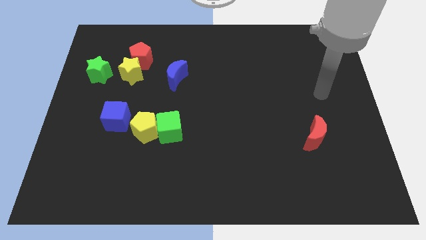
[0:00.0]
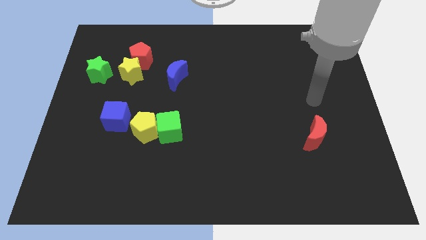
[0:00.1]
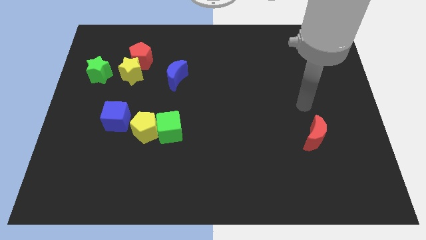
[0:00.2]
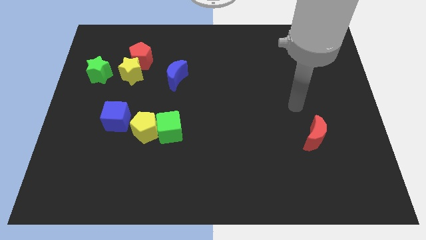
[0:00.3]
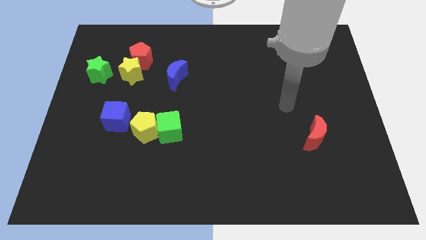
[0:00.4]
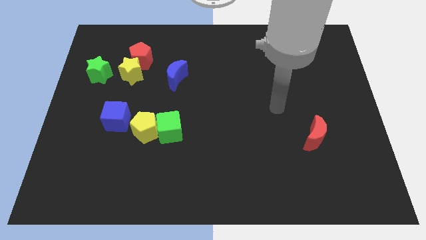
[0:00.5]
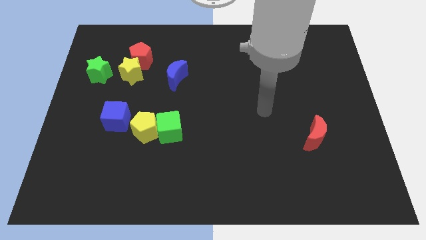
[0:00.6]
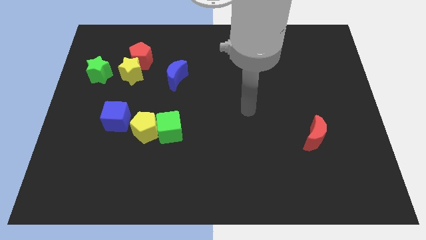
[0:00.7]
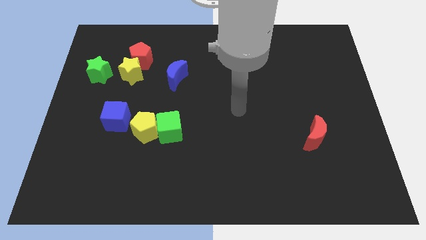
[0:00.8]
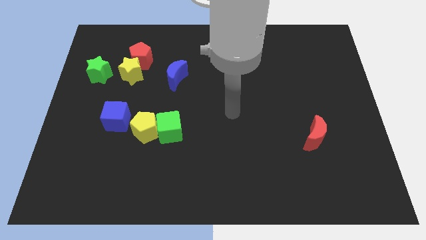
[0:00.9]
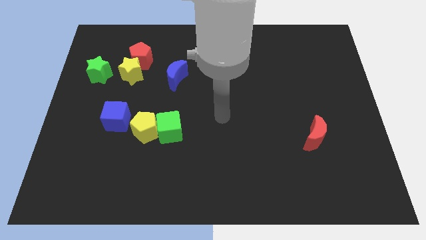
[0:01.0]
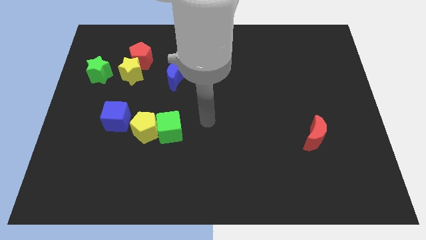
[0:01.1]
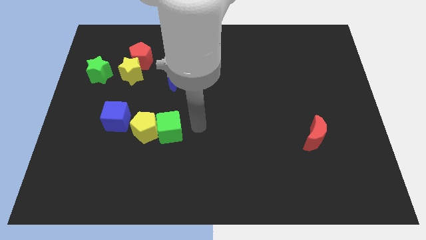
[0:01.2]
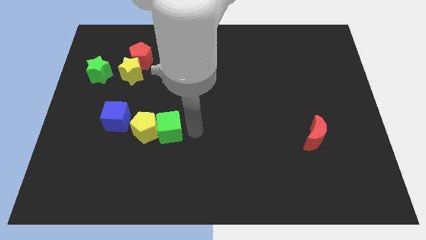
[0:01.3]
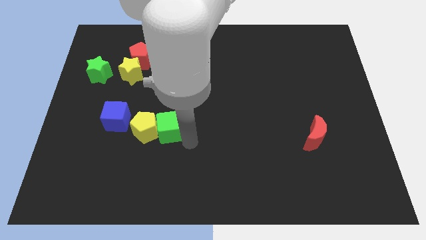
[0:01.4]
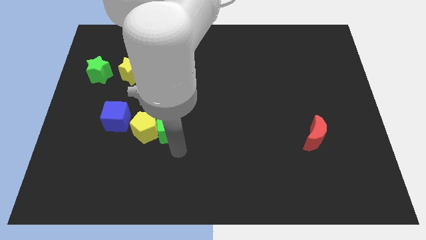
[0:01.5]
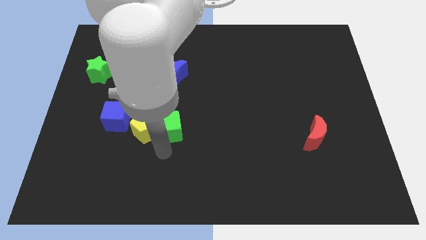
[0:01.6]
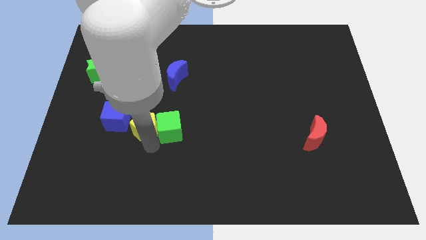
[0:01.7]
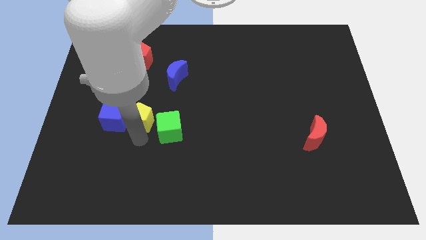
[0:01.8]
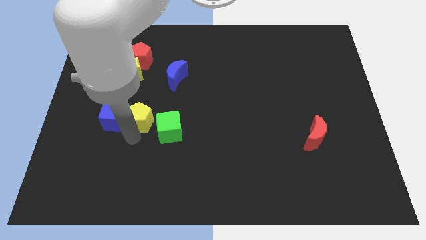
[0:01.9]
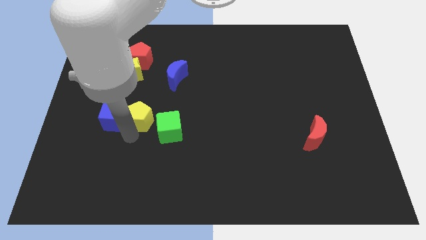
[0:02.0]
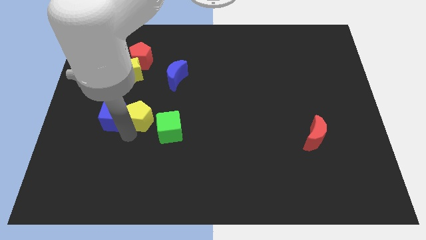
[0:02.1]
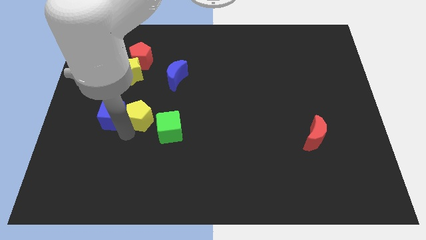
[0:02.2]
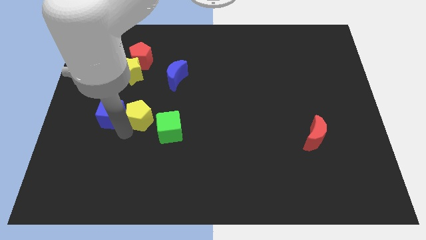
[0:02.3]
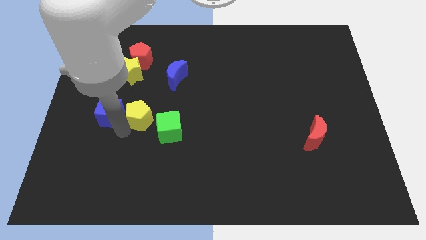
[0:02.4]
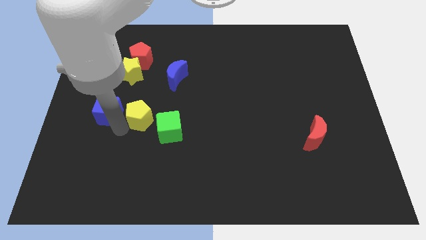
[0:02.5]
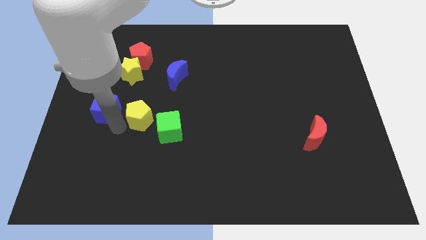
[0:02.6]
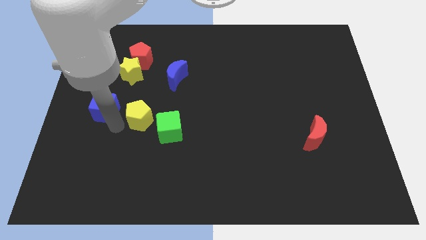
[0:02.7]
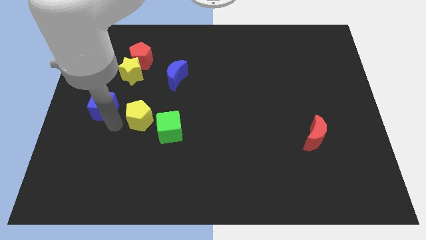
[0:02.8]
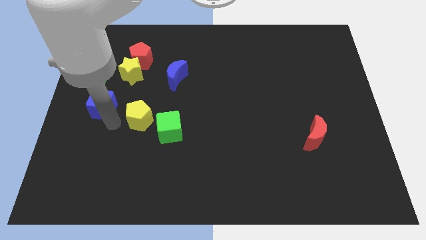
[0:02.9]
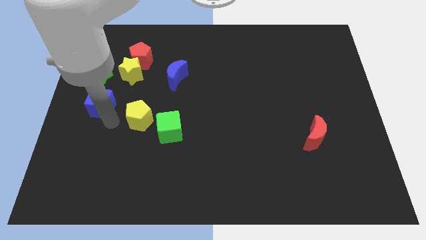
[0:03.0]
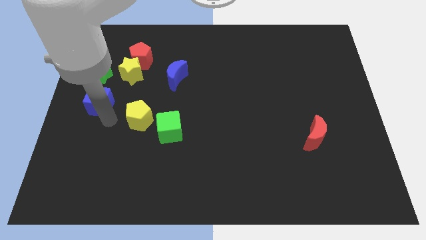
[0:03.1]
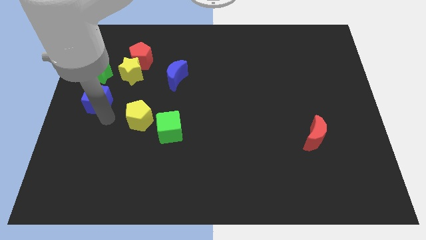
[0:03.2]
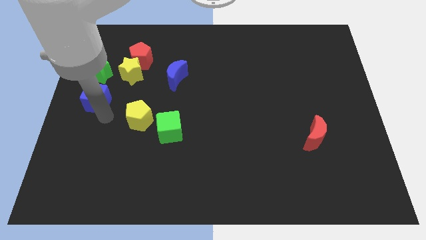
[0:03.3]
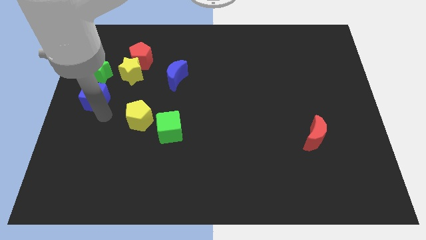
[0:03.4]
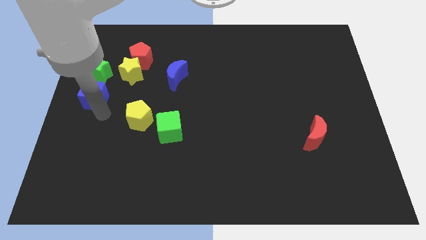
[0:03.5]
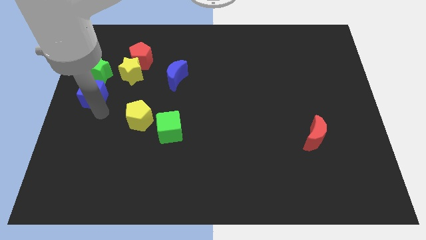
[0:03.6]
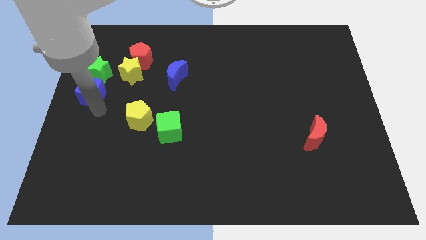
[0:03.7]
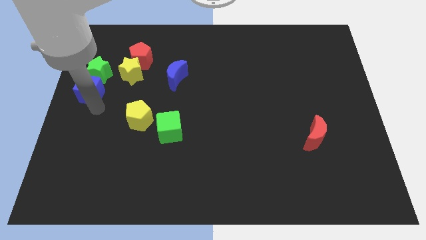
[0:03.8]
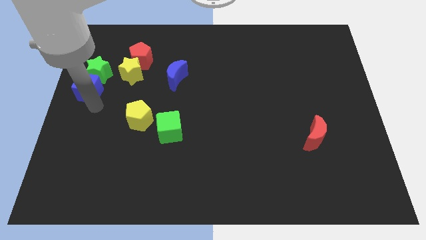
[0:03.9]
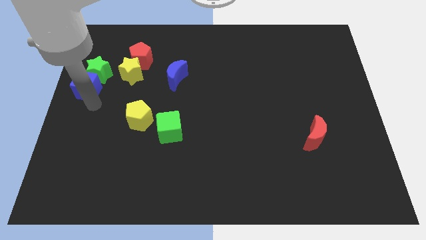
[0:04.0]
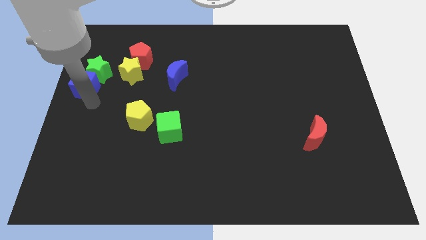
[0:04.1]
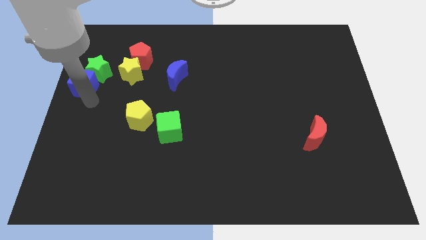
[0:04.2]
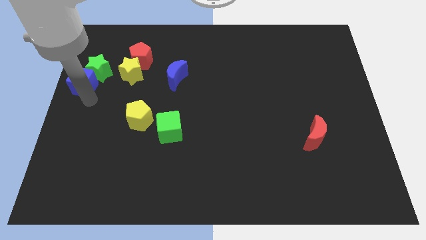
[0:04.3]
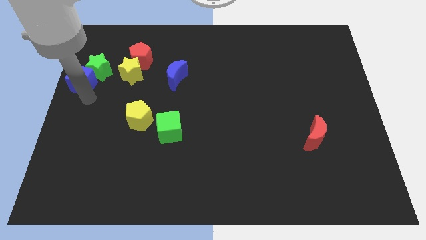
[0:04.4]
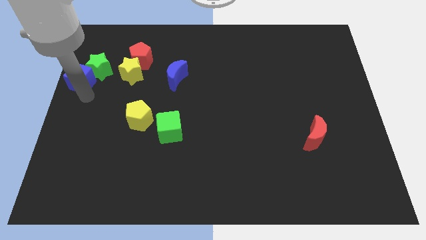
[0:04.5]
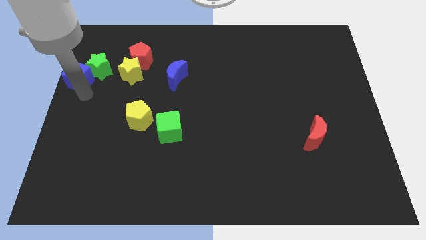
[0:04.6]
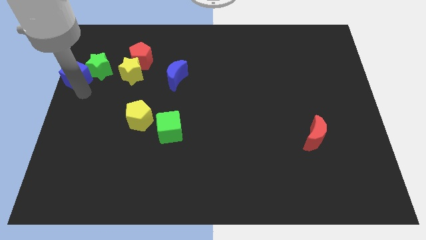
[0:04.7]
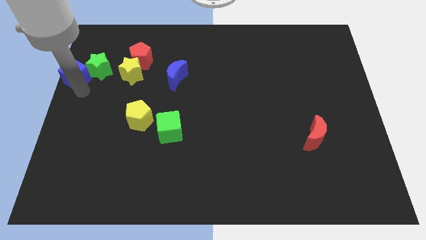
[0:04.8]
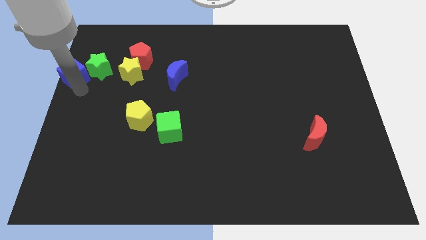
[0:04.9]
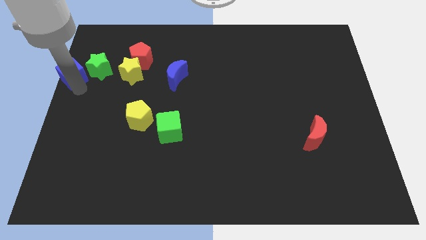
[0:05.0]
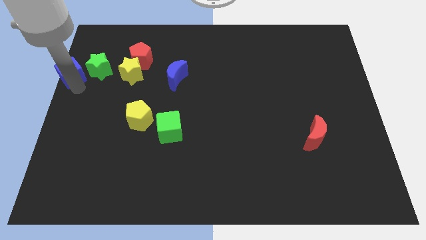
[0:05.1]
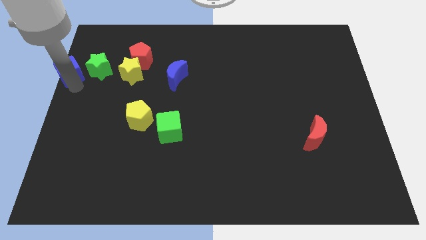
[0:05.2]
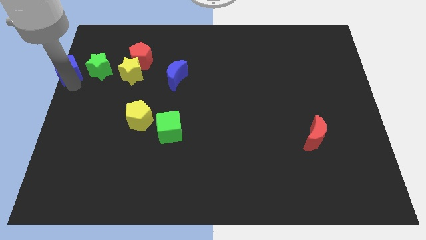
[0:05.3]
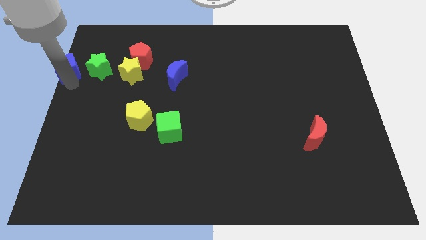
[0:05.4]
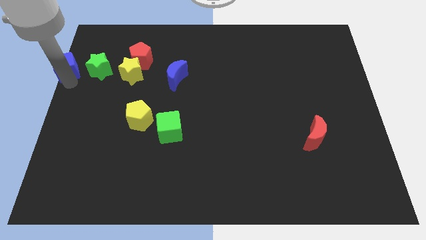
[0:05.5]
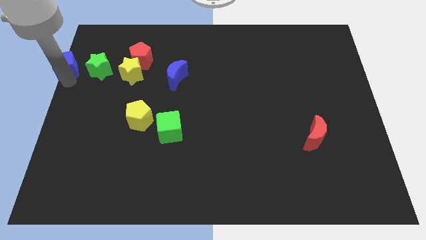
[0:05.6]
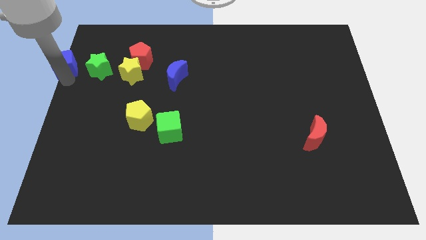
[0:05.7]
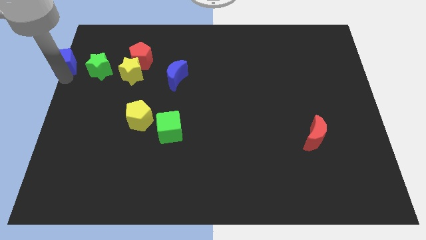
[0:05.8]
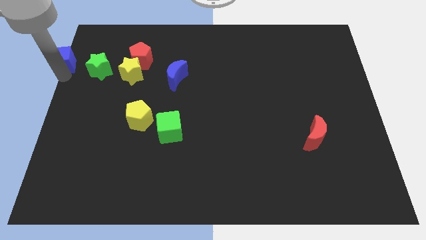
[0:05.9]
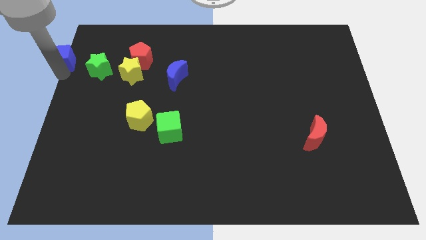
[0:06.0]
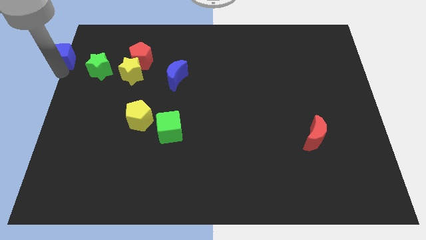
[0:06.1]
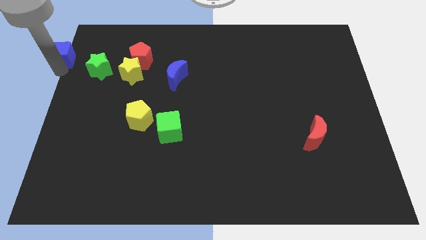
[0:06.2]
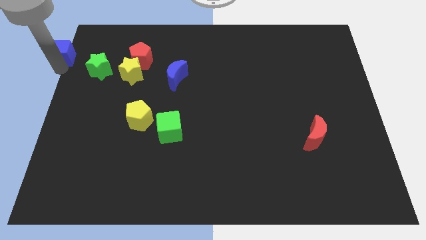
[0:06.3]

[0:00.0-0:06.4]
move the blue cube to the top left of the board
